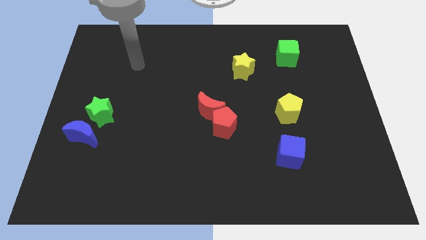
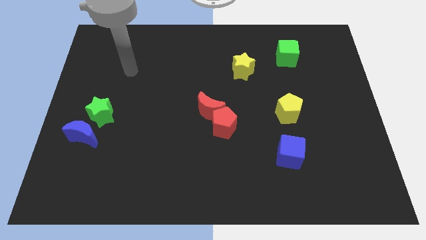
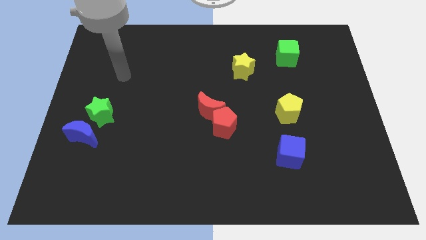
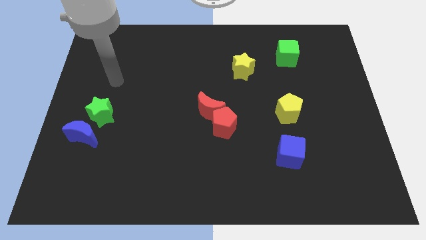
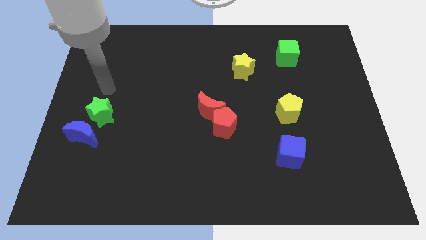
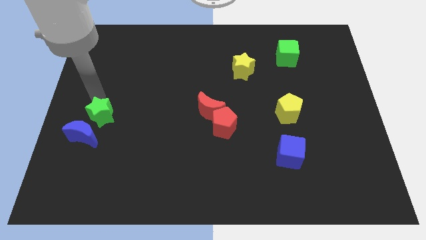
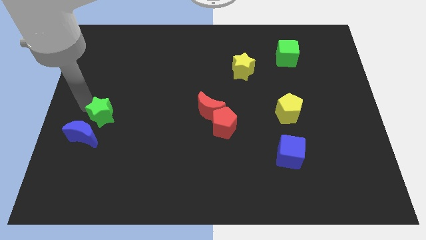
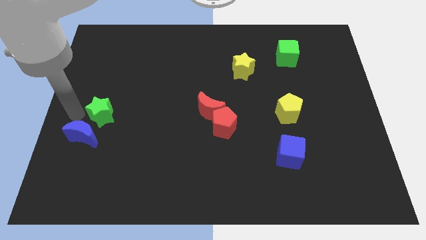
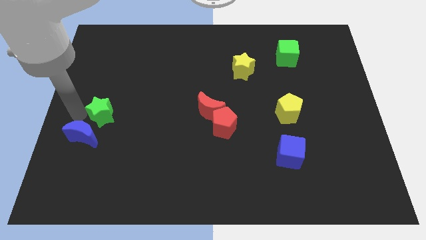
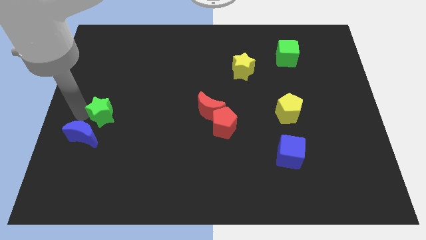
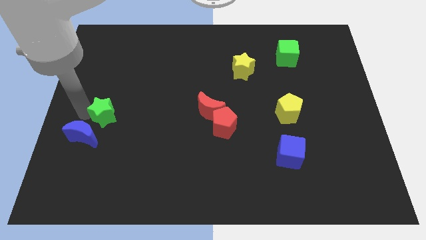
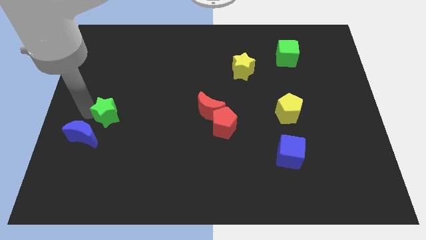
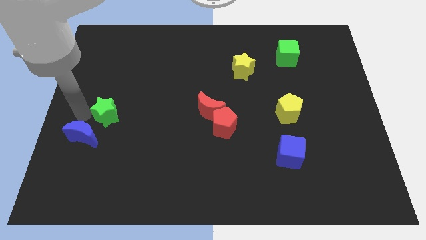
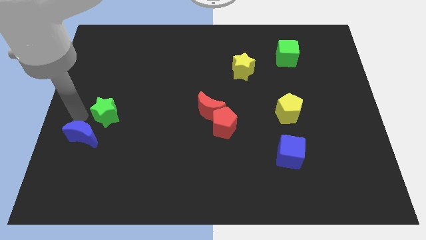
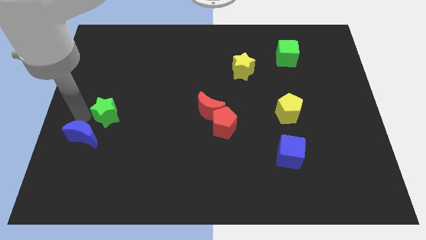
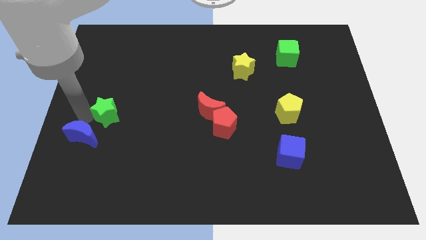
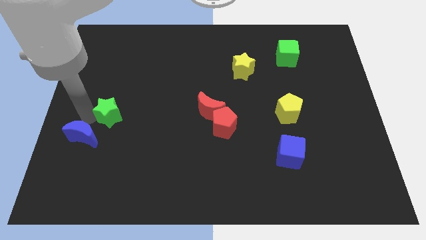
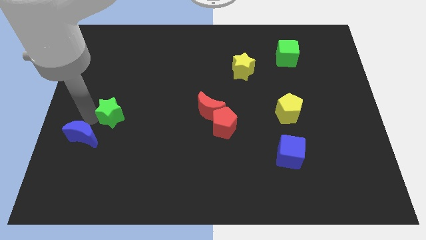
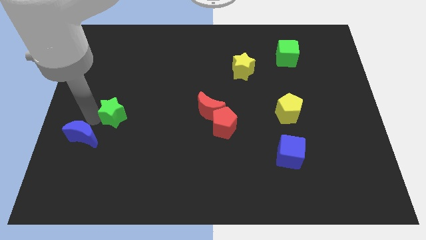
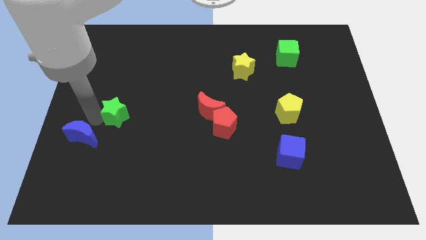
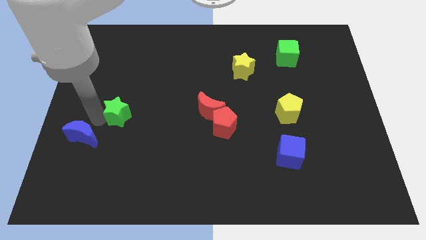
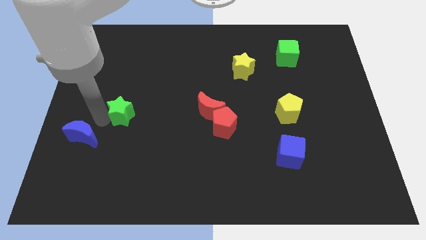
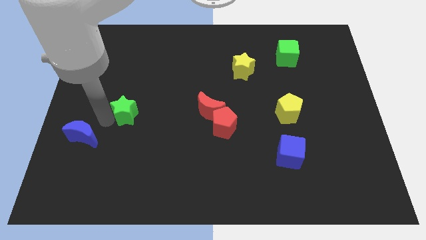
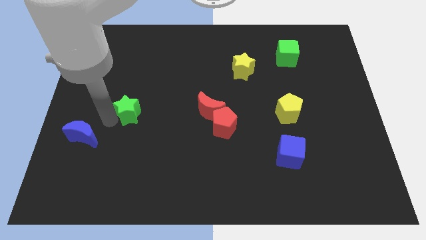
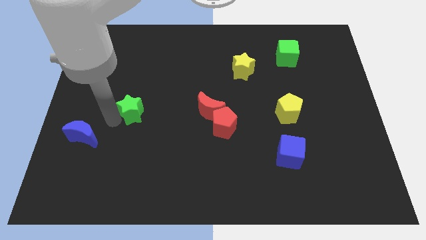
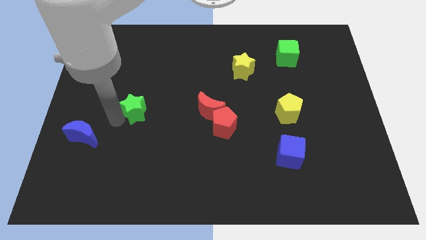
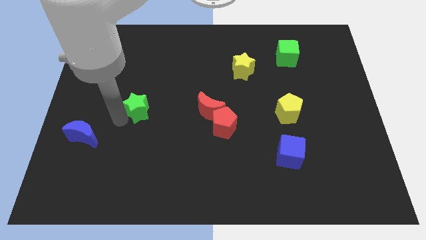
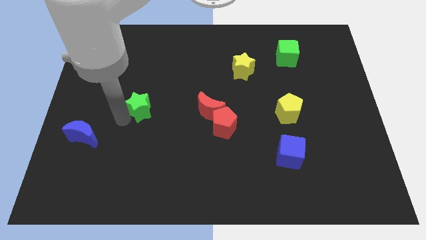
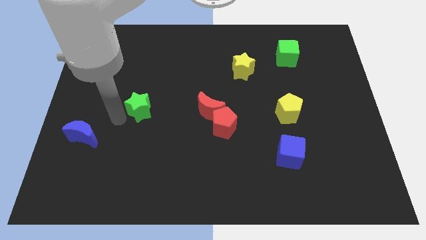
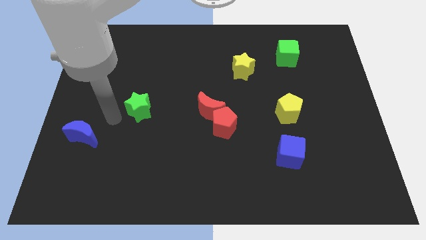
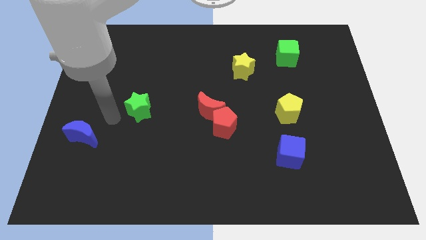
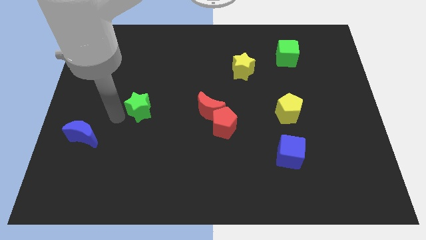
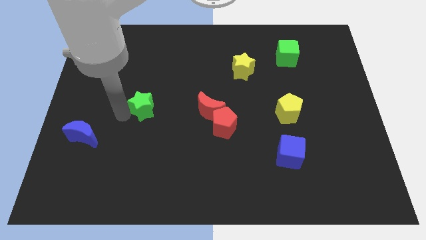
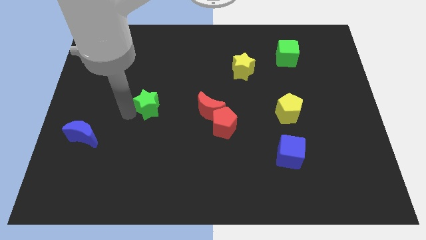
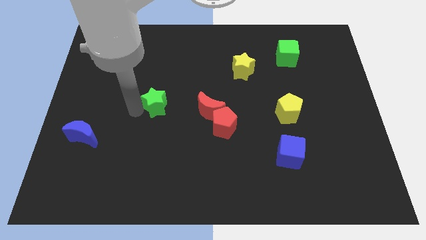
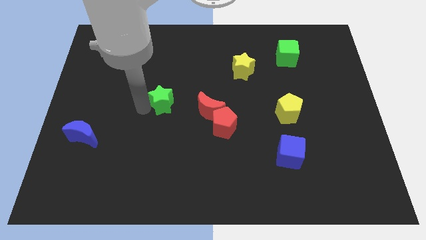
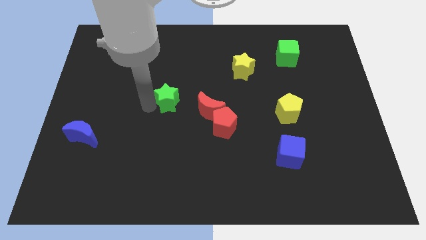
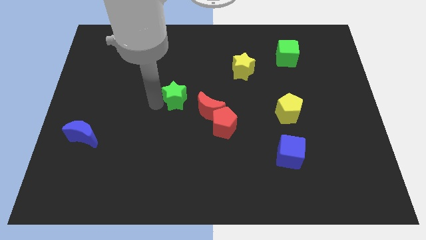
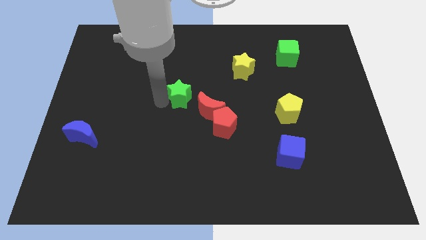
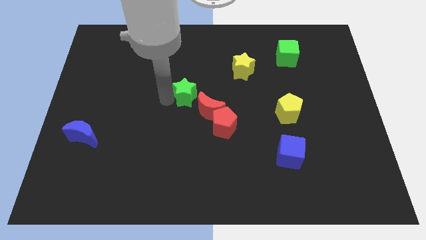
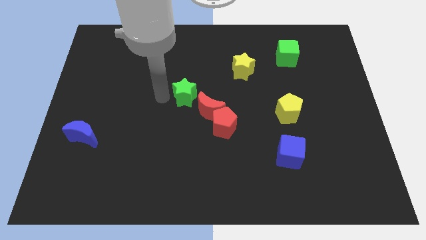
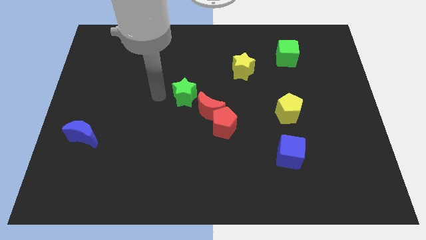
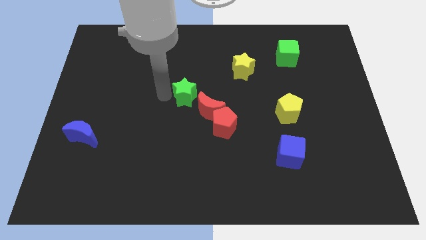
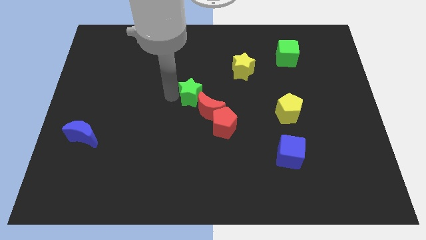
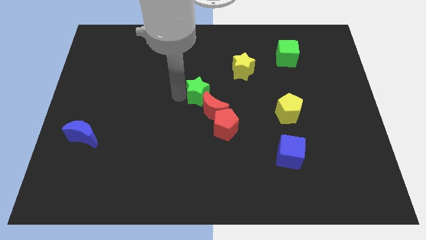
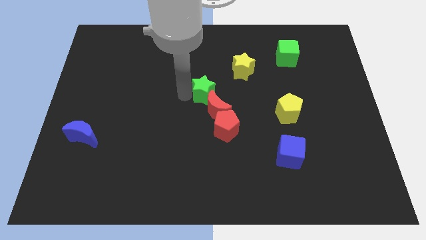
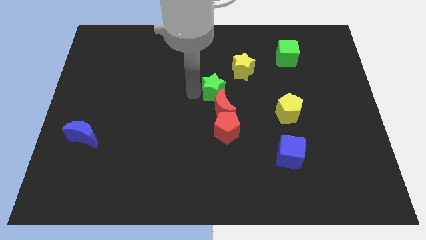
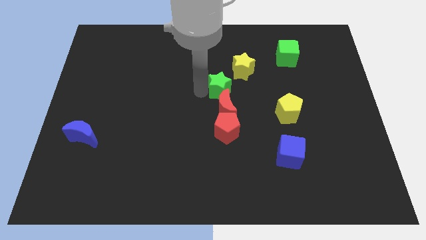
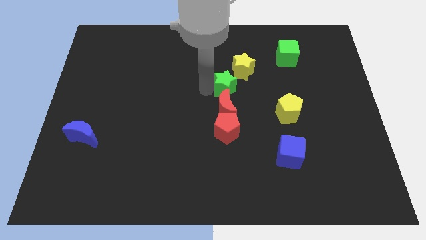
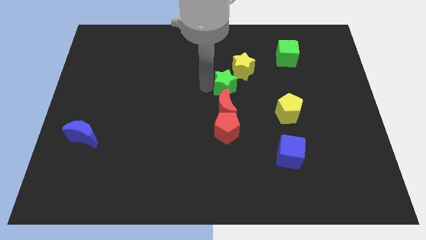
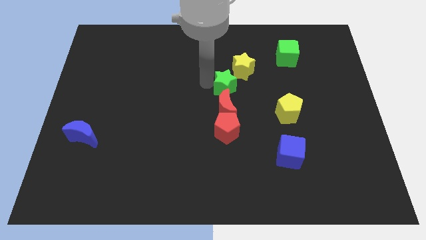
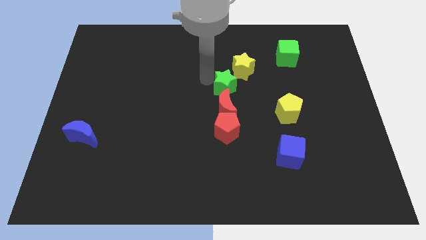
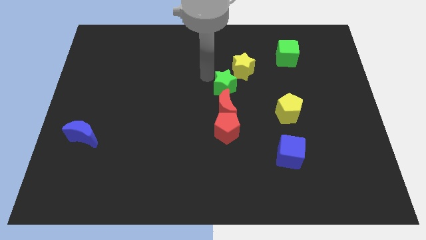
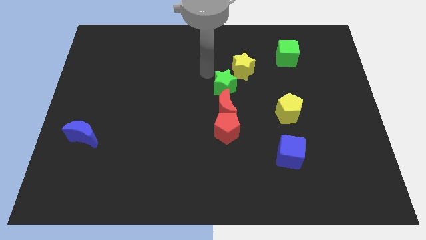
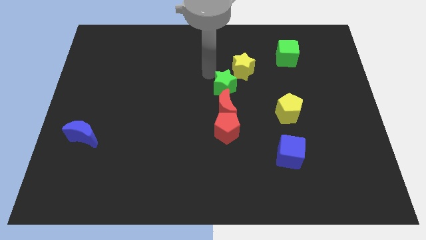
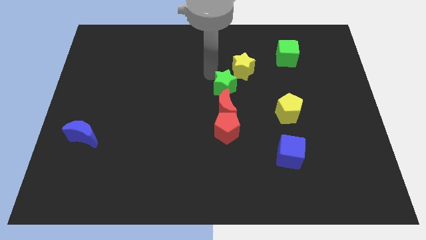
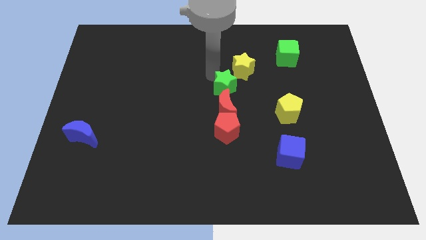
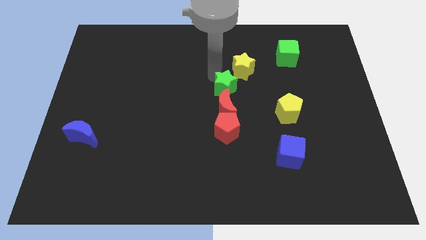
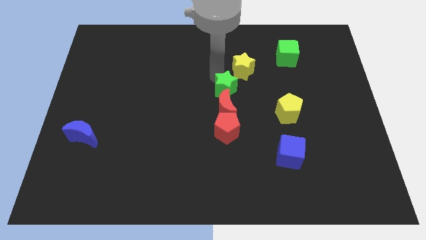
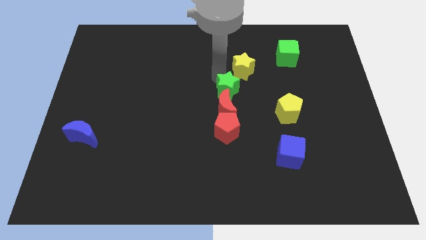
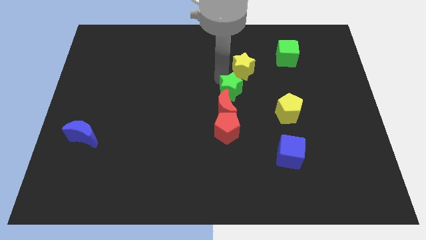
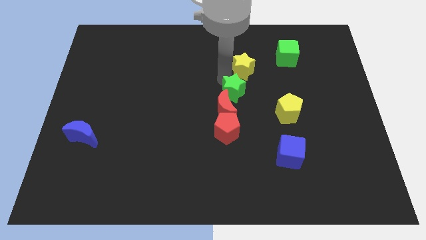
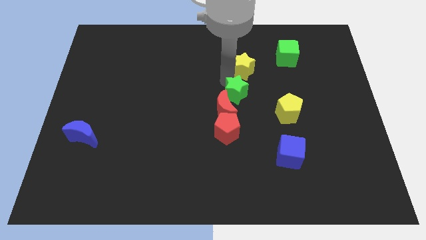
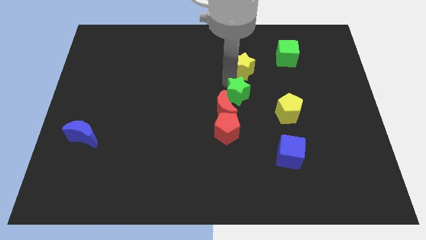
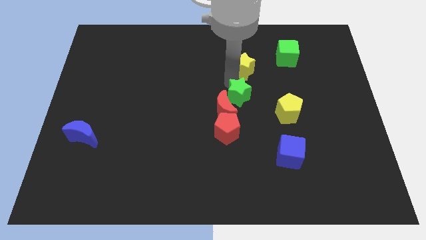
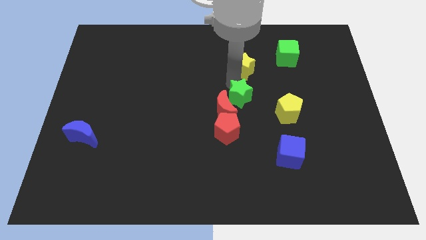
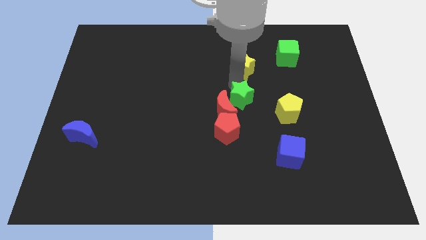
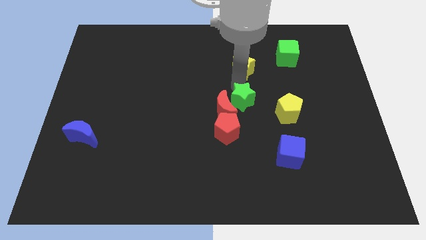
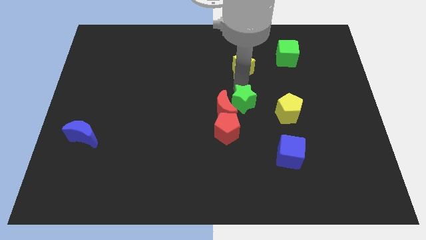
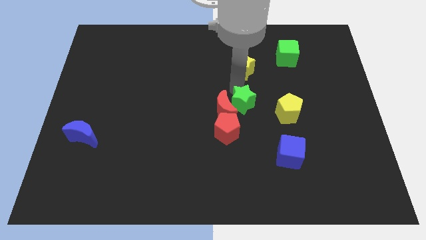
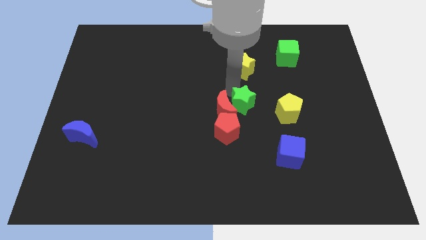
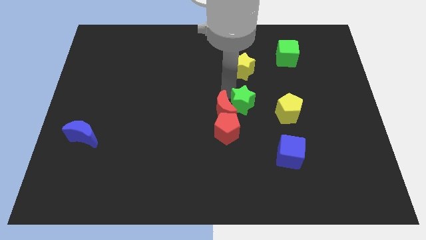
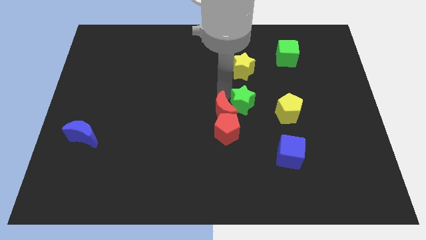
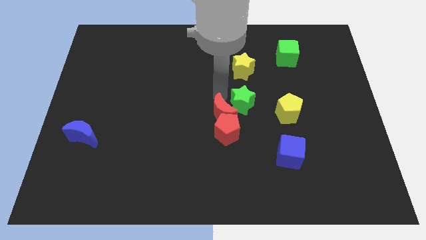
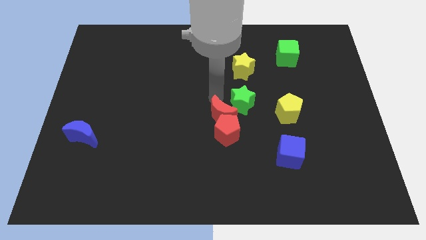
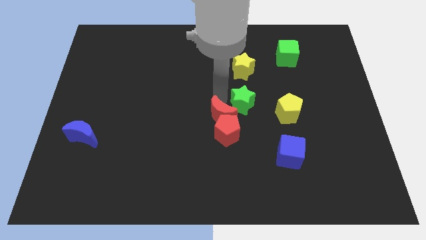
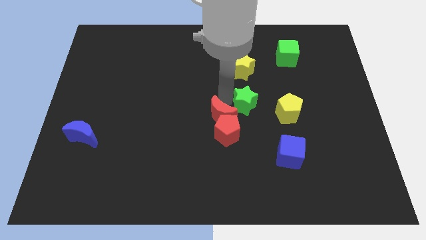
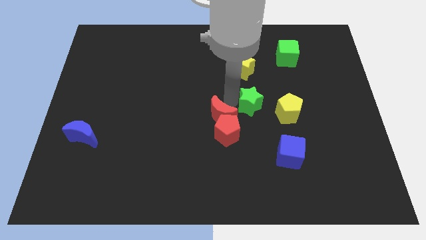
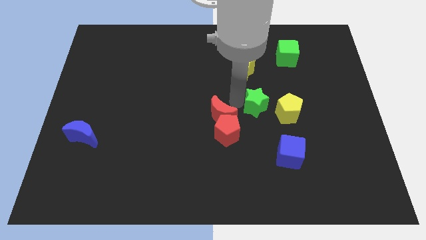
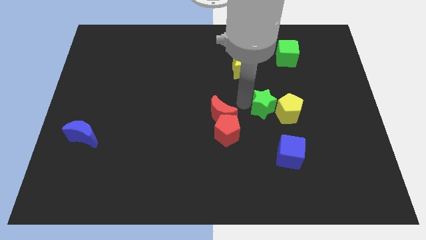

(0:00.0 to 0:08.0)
slide the green star next to the yellow pentagon

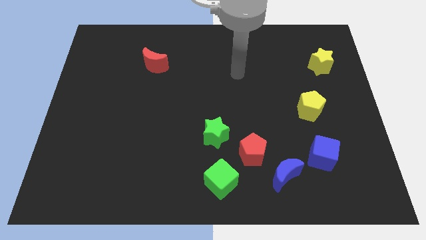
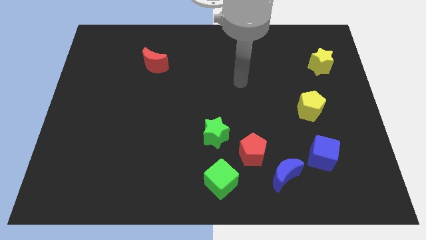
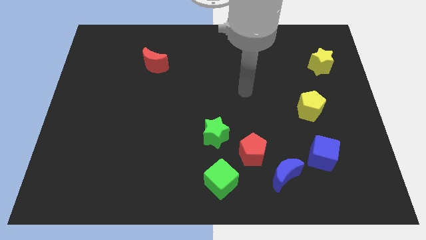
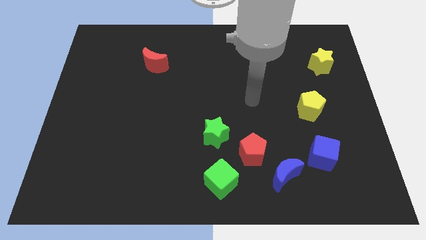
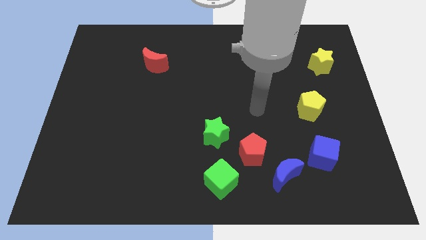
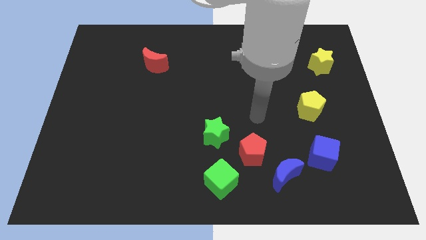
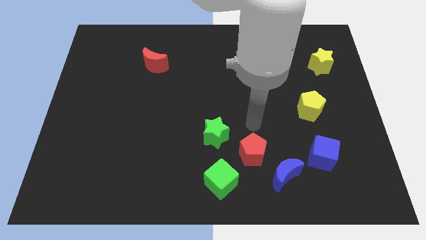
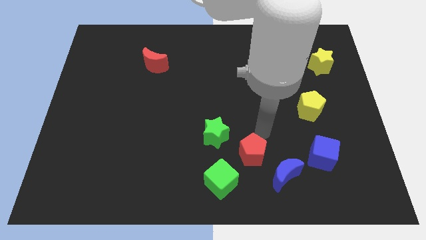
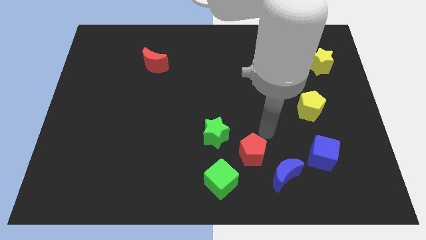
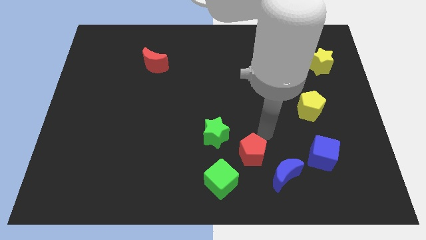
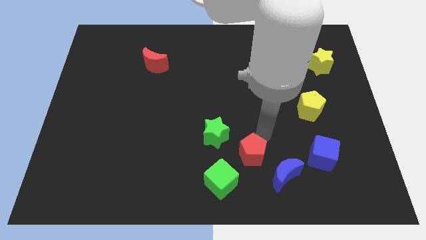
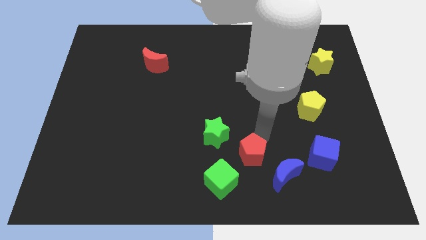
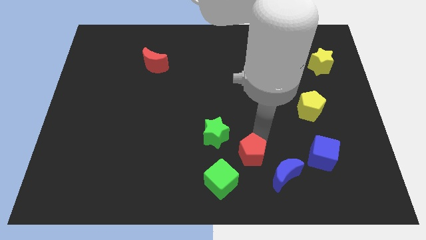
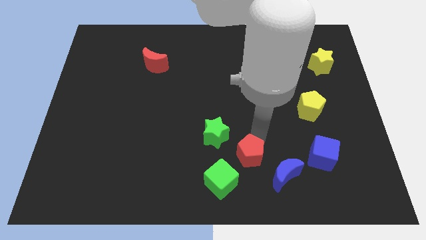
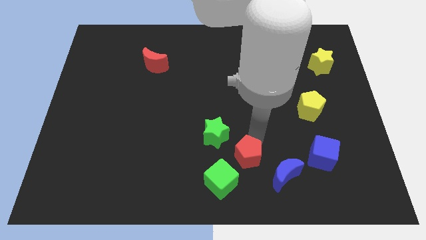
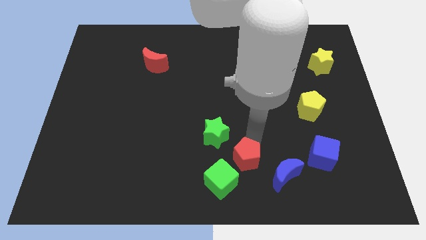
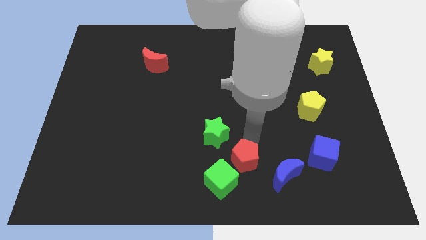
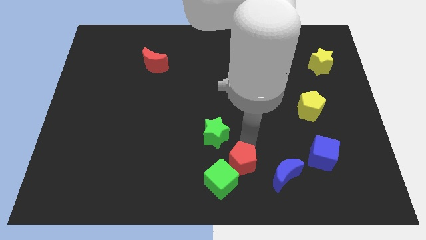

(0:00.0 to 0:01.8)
slide the red pentagon to the green cube
